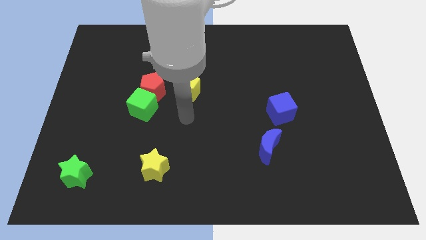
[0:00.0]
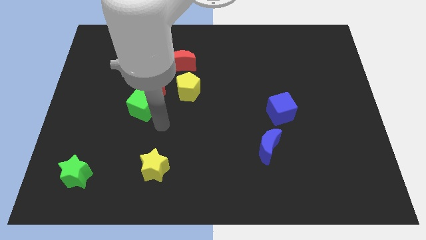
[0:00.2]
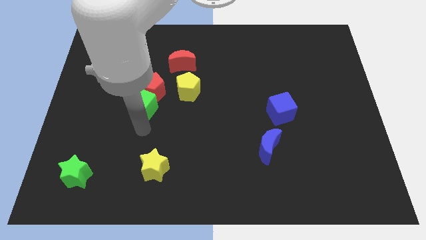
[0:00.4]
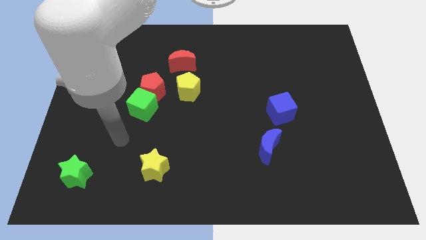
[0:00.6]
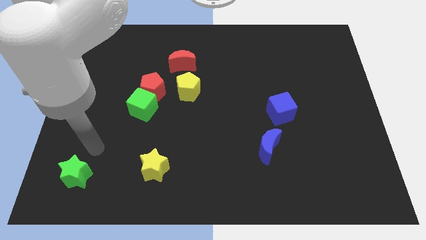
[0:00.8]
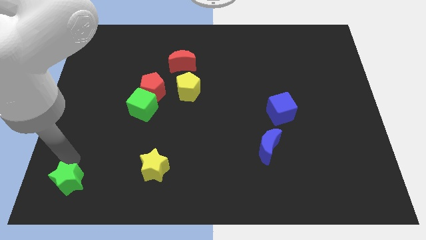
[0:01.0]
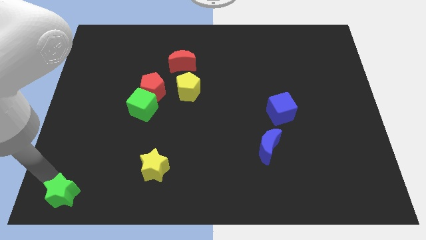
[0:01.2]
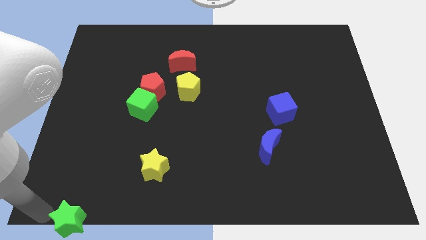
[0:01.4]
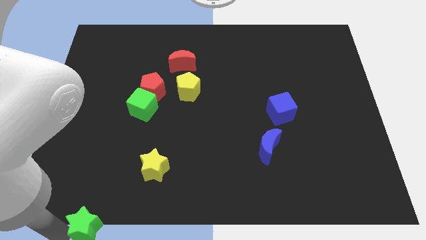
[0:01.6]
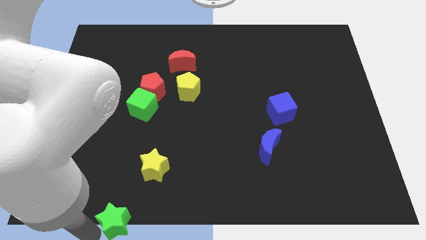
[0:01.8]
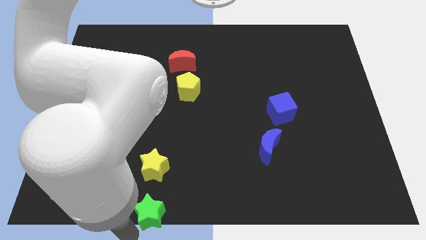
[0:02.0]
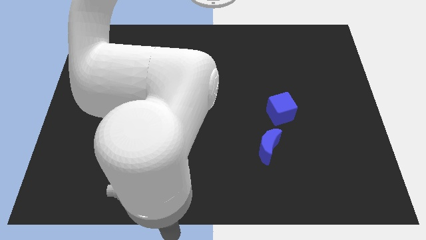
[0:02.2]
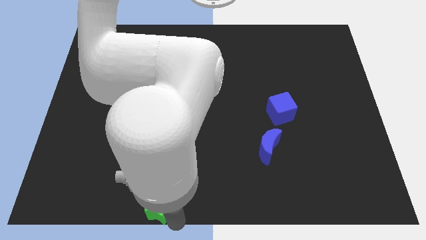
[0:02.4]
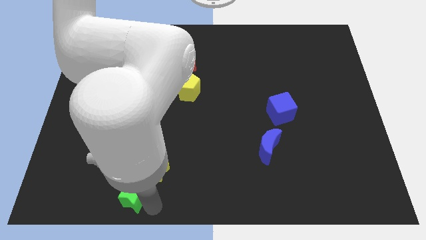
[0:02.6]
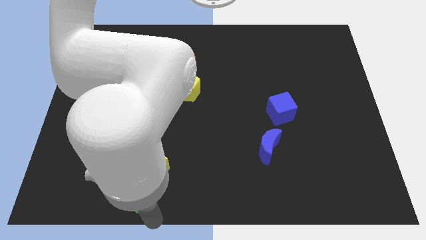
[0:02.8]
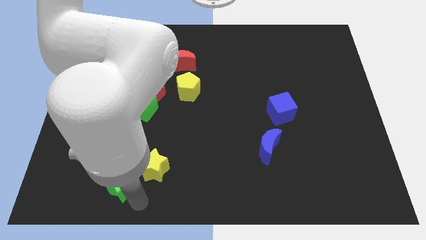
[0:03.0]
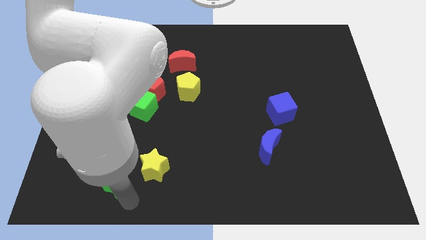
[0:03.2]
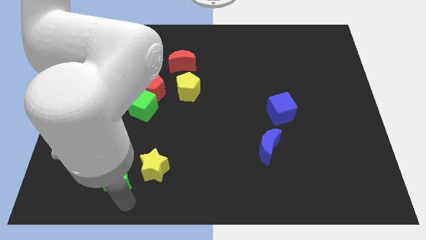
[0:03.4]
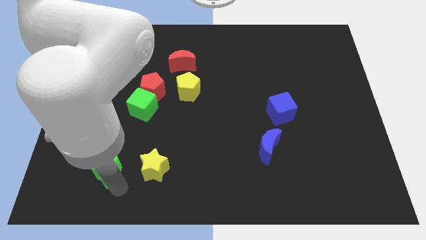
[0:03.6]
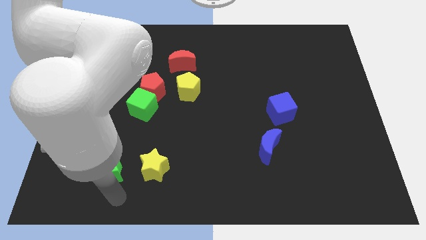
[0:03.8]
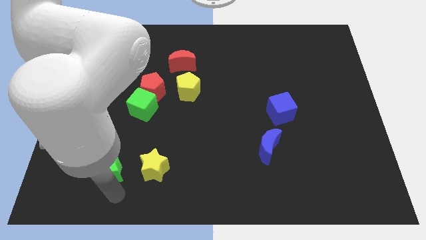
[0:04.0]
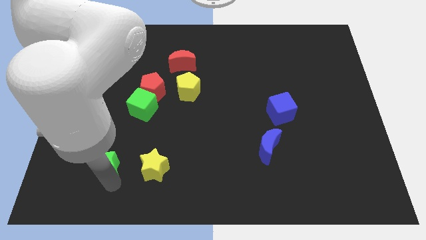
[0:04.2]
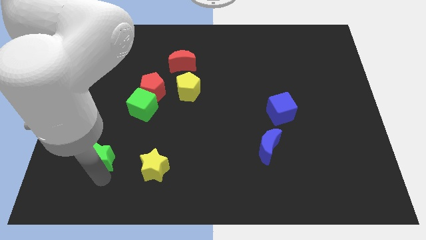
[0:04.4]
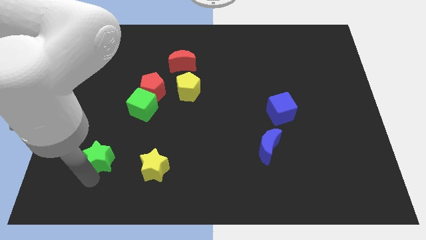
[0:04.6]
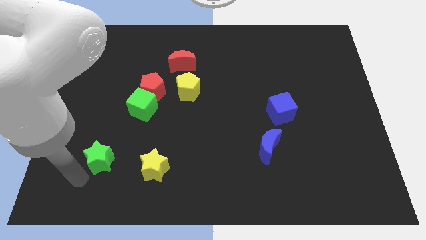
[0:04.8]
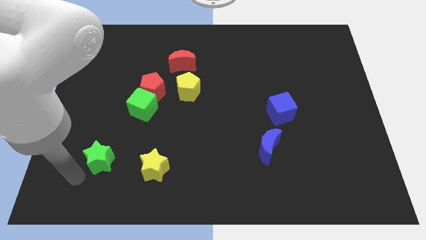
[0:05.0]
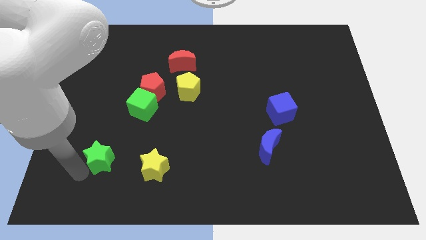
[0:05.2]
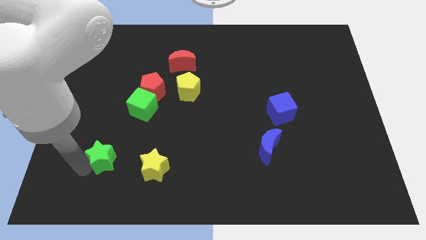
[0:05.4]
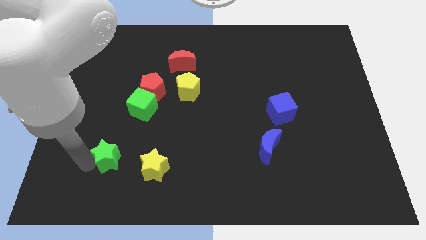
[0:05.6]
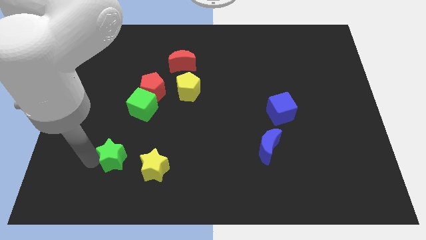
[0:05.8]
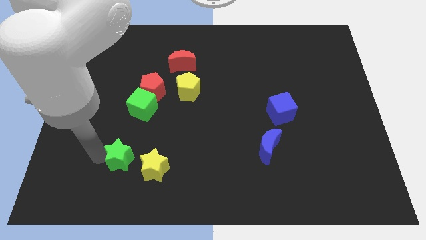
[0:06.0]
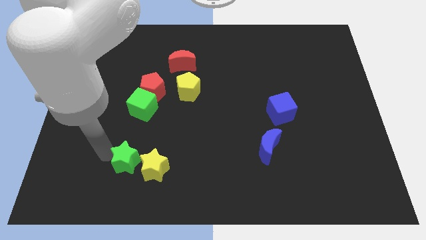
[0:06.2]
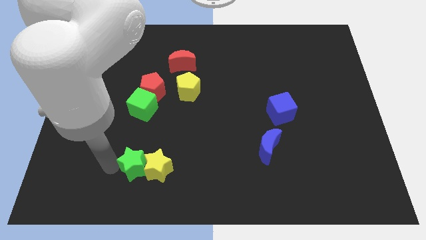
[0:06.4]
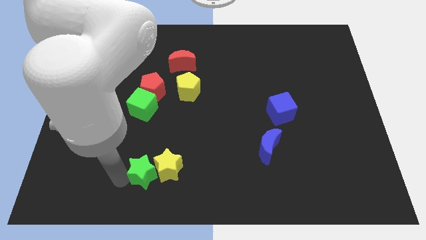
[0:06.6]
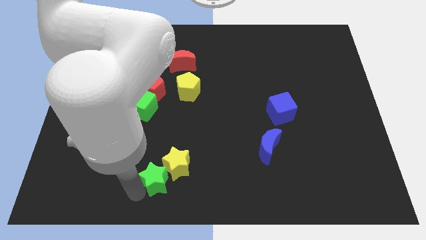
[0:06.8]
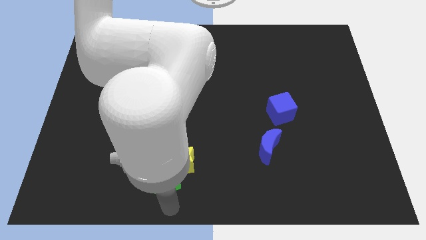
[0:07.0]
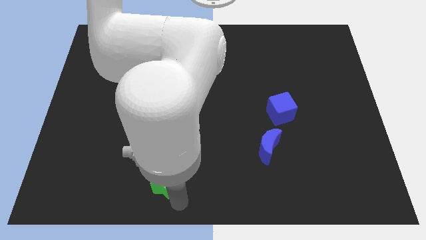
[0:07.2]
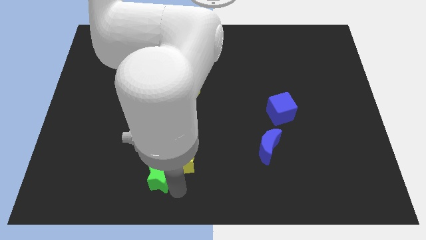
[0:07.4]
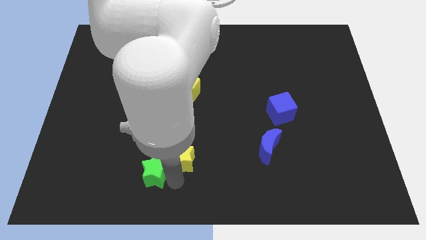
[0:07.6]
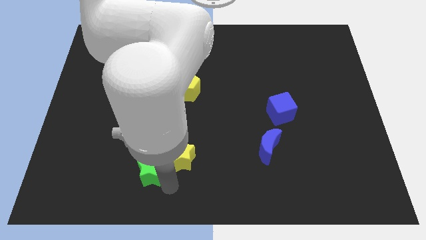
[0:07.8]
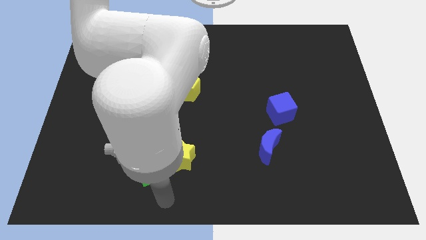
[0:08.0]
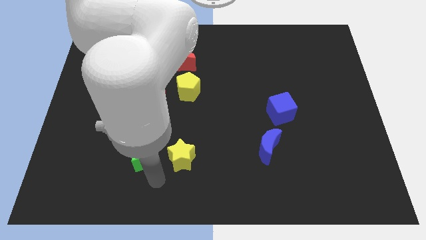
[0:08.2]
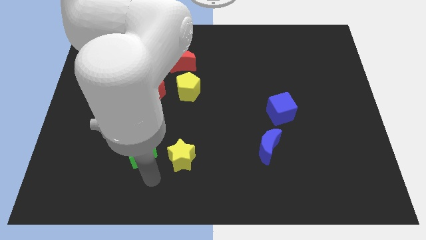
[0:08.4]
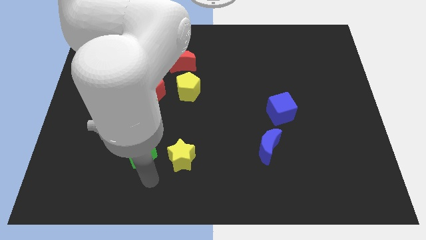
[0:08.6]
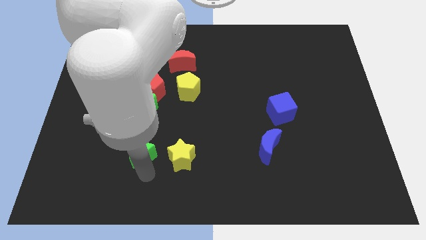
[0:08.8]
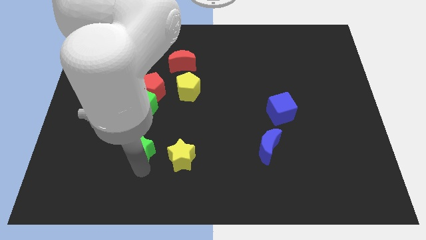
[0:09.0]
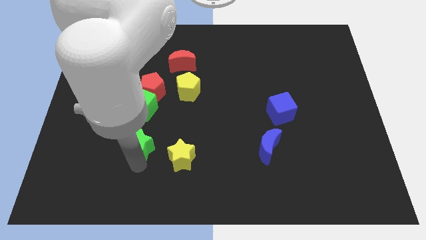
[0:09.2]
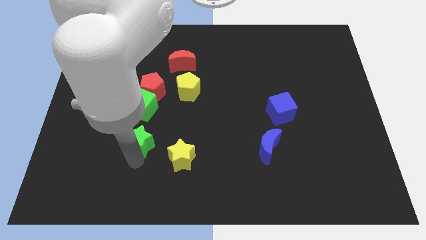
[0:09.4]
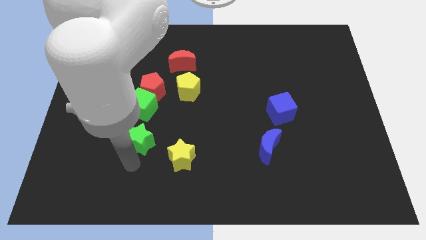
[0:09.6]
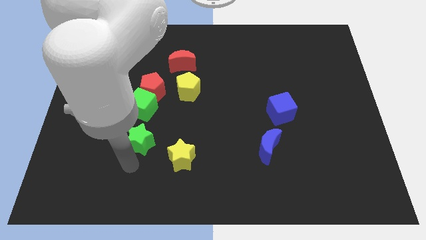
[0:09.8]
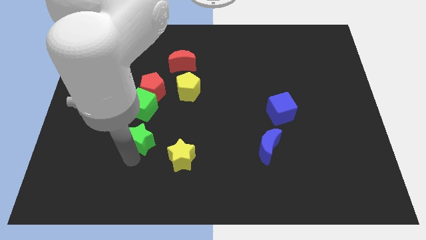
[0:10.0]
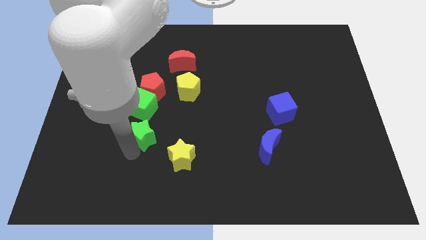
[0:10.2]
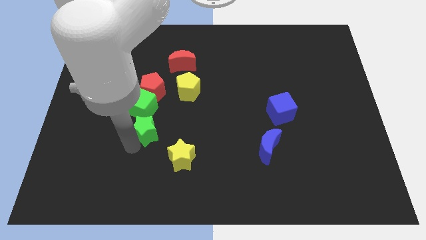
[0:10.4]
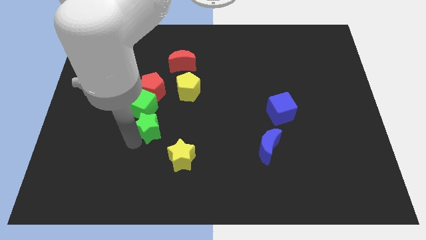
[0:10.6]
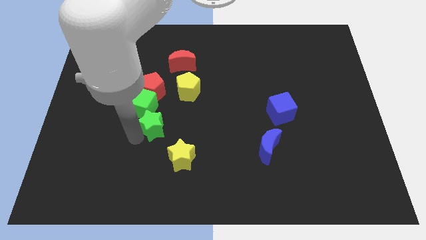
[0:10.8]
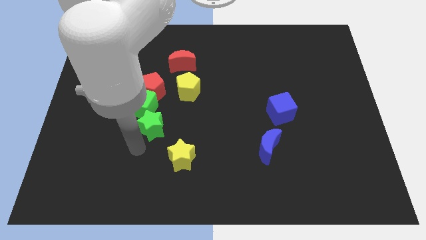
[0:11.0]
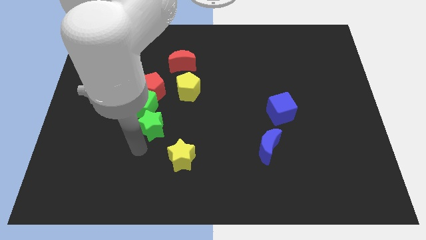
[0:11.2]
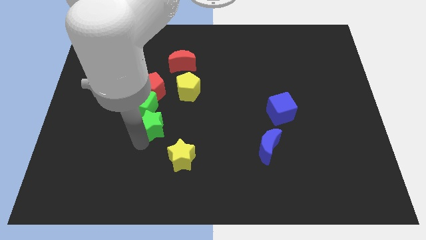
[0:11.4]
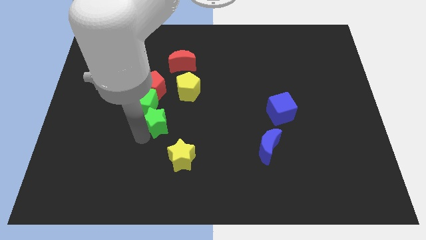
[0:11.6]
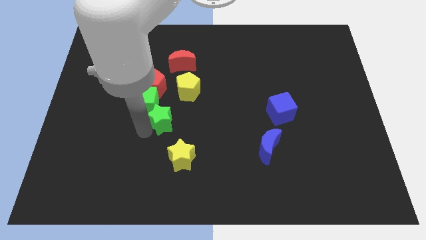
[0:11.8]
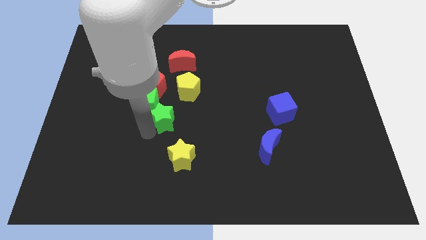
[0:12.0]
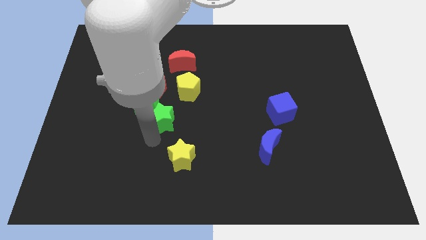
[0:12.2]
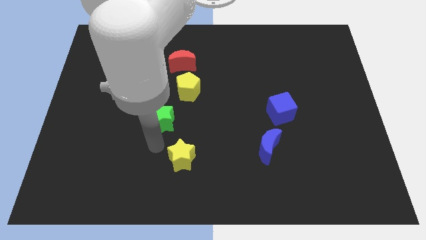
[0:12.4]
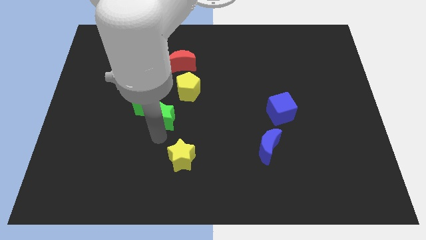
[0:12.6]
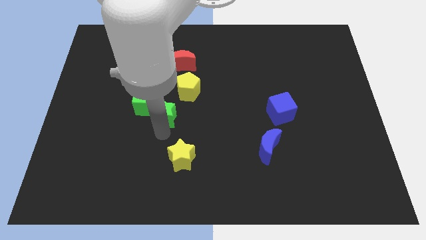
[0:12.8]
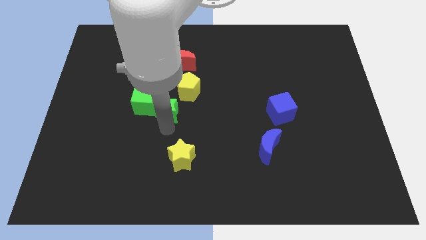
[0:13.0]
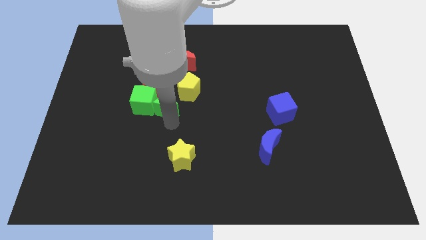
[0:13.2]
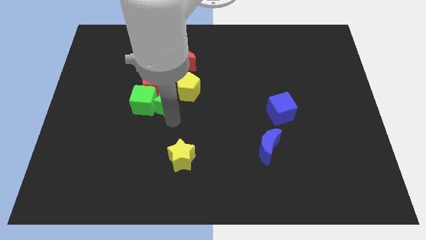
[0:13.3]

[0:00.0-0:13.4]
slide the green star diagonally up and to the right of the green cube
